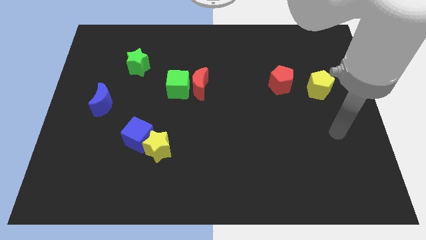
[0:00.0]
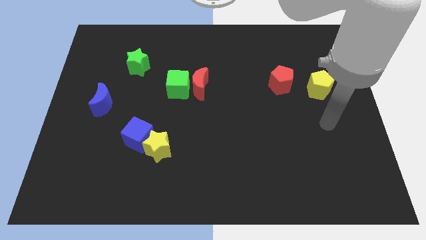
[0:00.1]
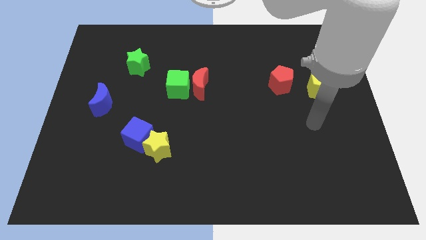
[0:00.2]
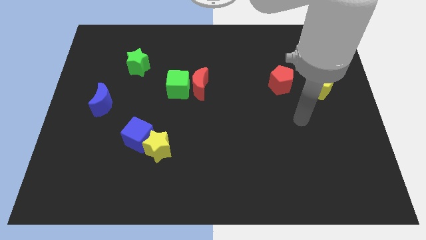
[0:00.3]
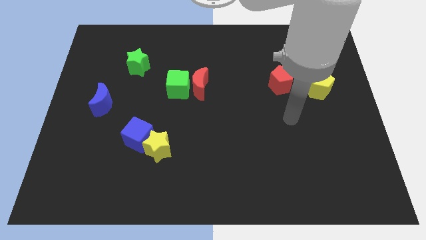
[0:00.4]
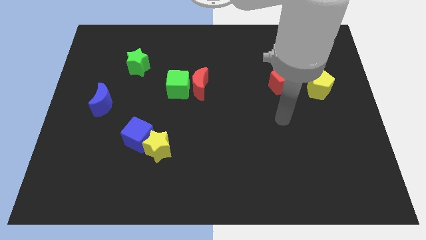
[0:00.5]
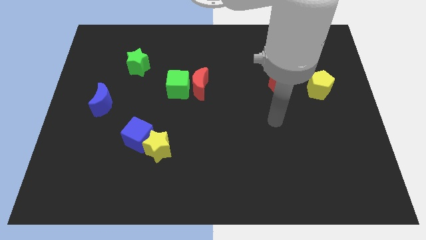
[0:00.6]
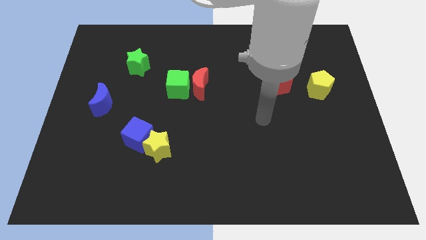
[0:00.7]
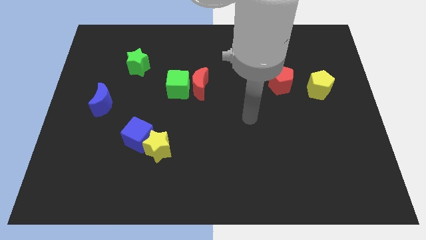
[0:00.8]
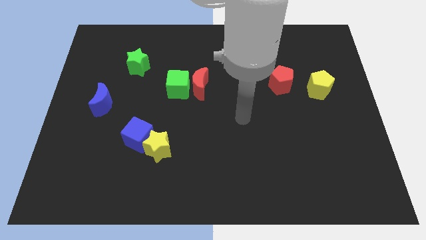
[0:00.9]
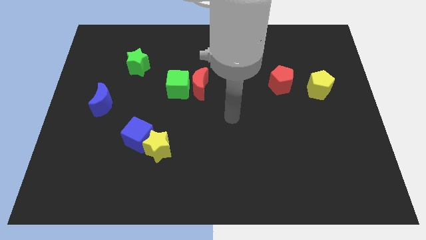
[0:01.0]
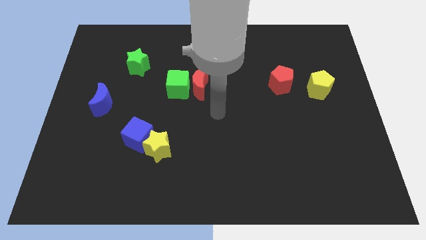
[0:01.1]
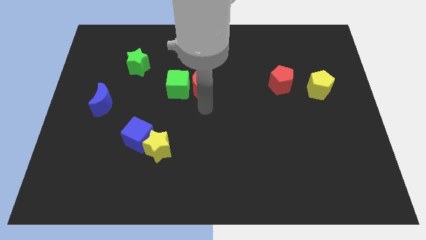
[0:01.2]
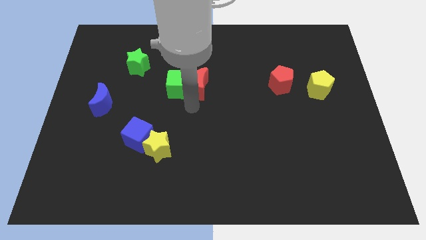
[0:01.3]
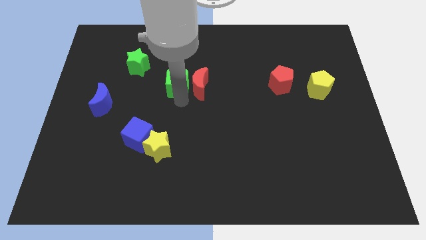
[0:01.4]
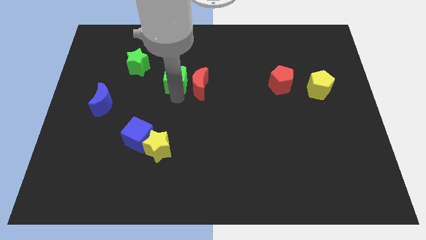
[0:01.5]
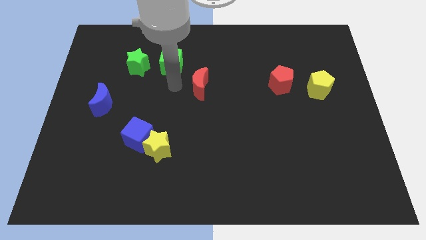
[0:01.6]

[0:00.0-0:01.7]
move the red moon away from the green cube

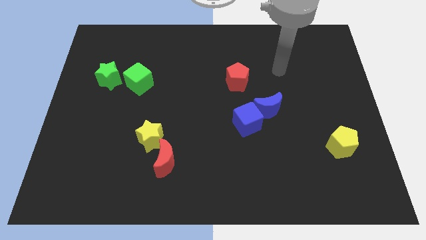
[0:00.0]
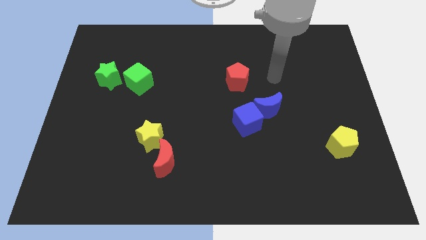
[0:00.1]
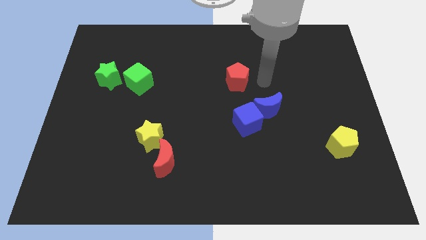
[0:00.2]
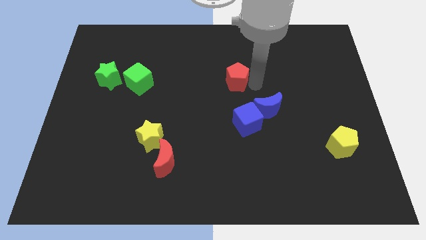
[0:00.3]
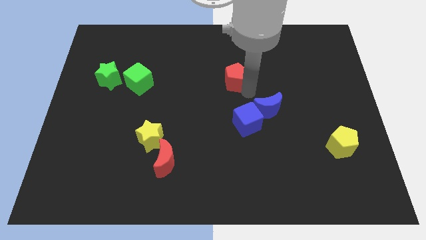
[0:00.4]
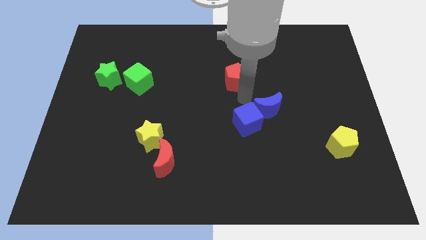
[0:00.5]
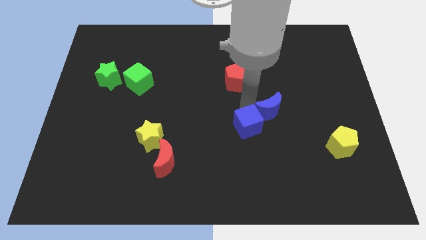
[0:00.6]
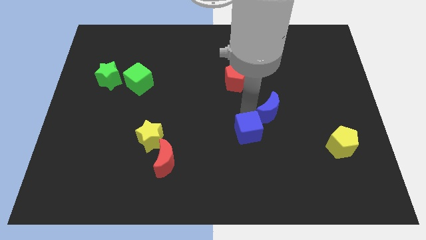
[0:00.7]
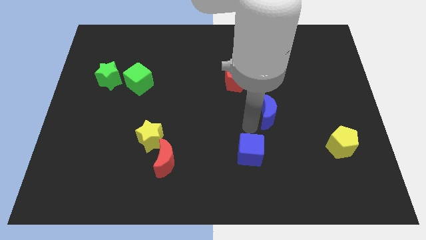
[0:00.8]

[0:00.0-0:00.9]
separate the blue moon from the blue cube

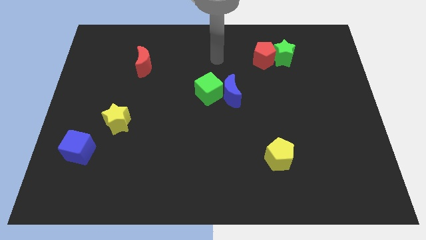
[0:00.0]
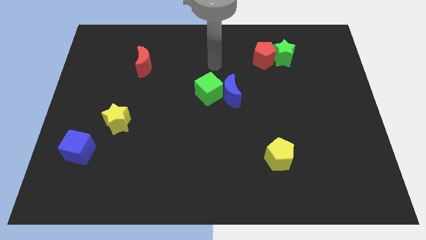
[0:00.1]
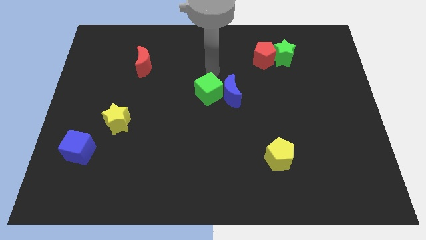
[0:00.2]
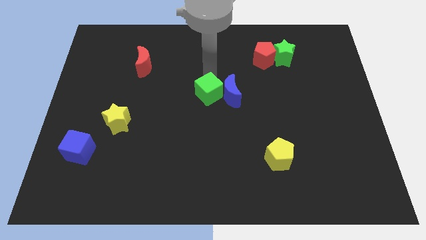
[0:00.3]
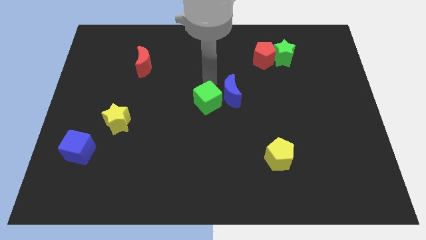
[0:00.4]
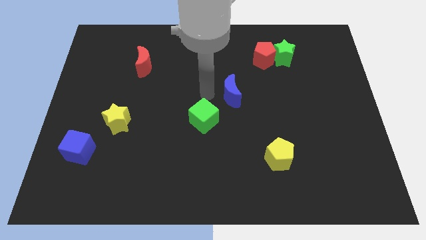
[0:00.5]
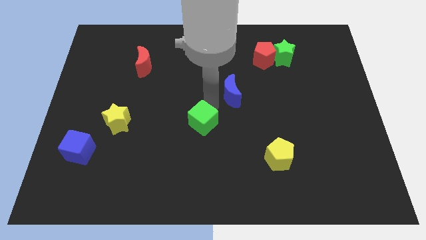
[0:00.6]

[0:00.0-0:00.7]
separate the blue moon from the green cube

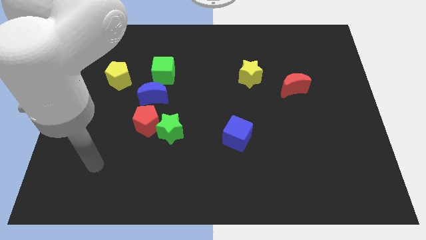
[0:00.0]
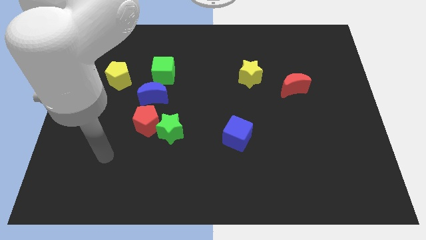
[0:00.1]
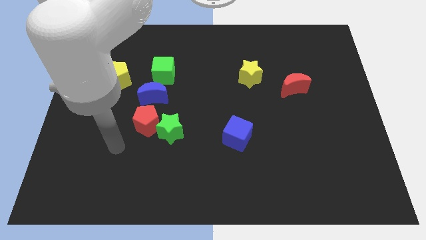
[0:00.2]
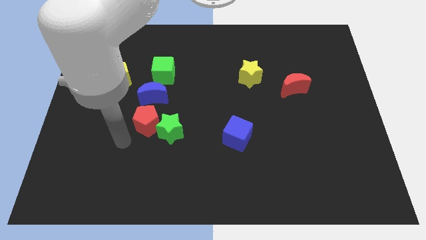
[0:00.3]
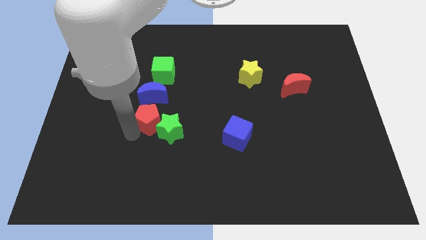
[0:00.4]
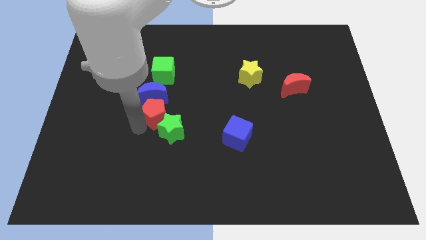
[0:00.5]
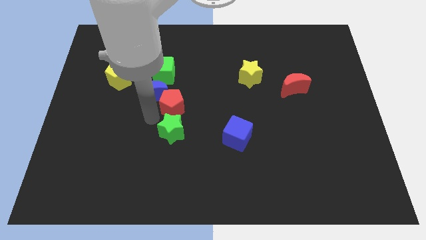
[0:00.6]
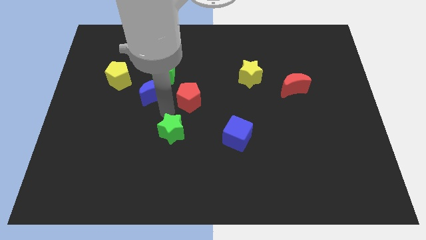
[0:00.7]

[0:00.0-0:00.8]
move the green star away from the red pentagon

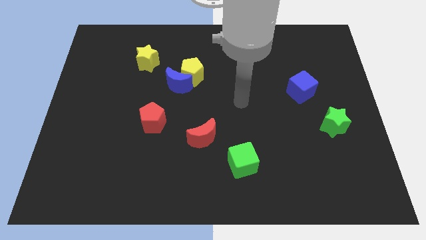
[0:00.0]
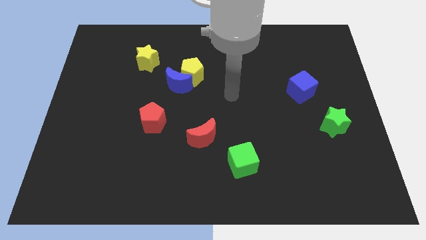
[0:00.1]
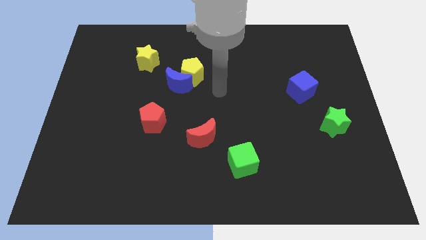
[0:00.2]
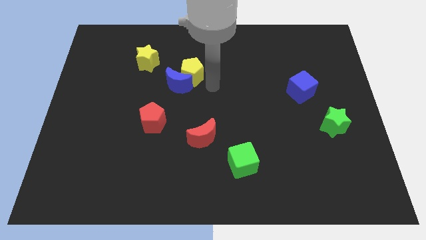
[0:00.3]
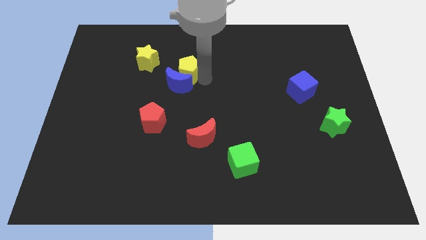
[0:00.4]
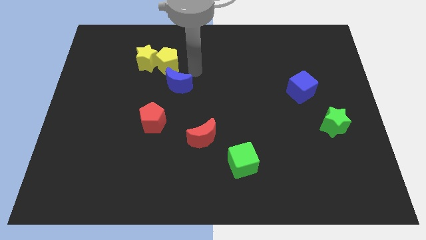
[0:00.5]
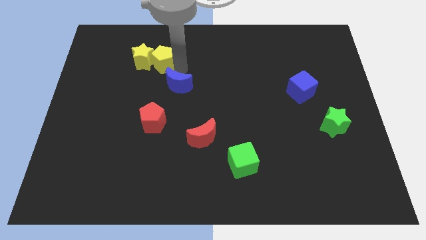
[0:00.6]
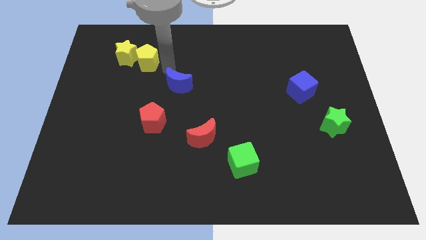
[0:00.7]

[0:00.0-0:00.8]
separate the blue moon from the yellow pentagon

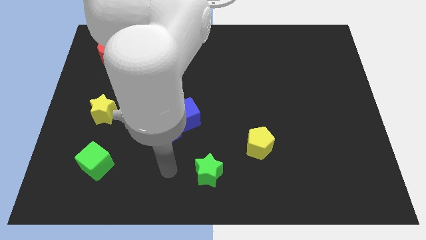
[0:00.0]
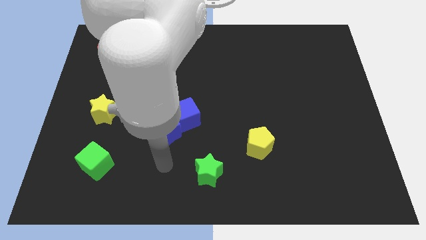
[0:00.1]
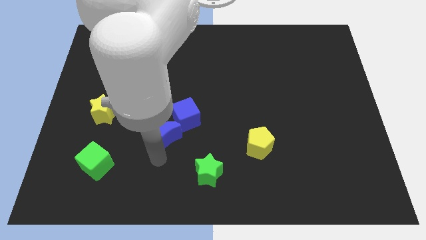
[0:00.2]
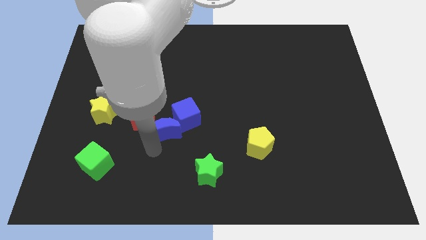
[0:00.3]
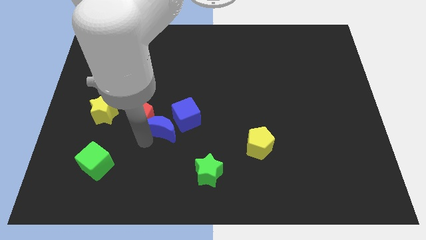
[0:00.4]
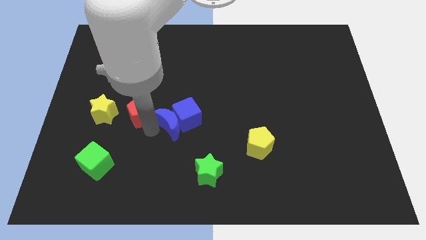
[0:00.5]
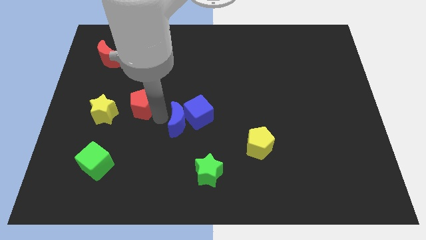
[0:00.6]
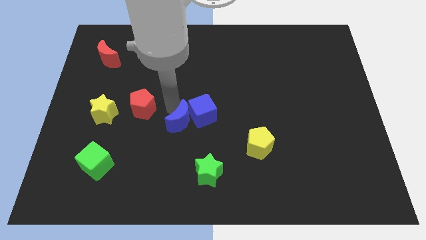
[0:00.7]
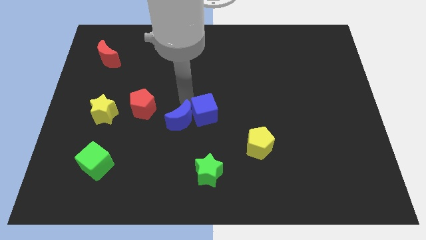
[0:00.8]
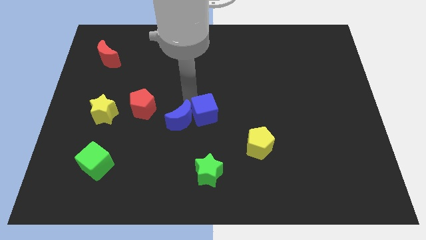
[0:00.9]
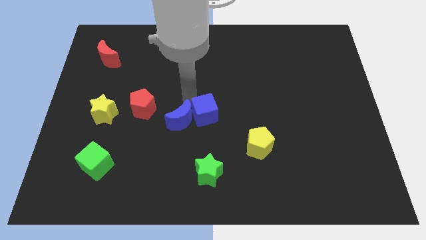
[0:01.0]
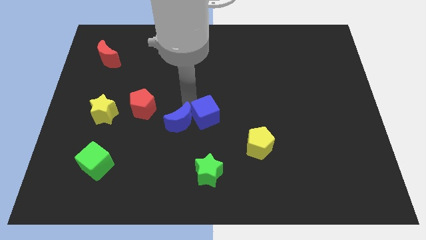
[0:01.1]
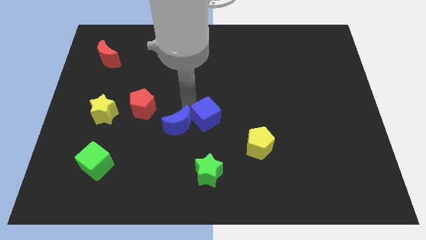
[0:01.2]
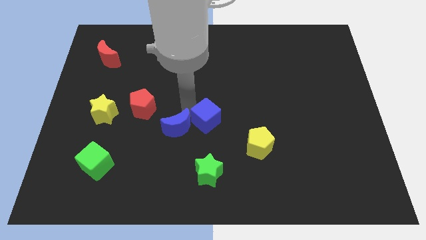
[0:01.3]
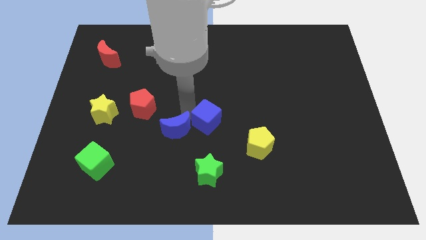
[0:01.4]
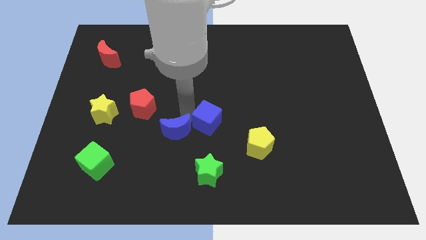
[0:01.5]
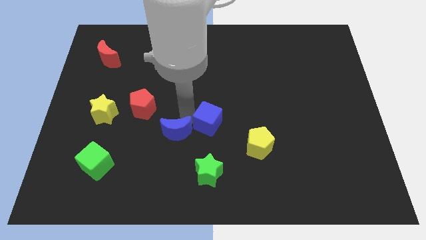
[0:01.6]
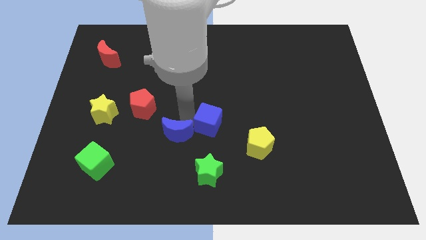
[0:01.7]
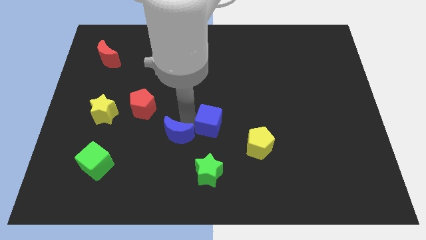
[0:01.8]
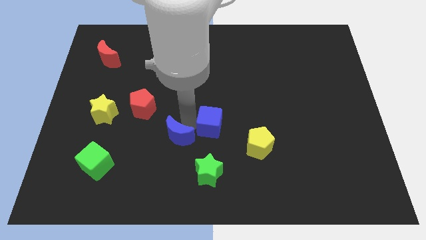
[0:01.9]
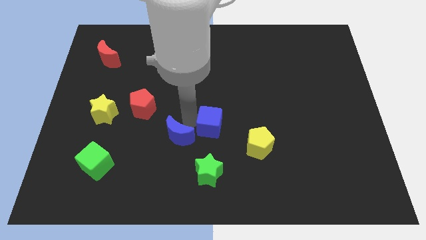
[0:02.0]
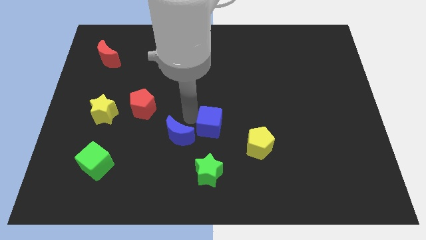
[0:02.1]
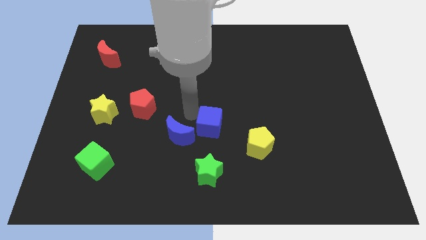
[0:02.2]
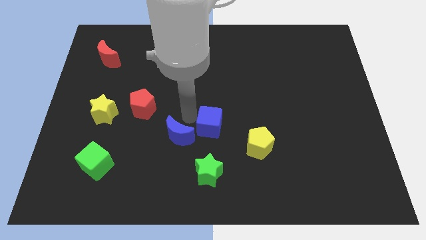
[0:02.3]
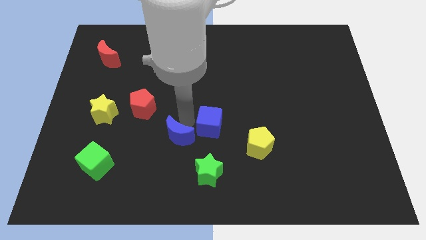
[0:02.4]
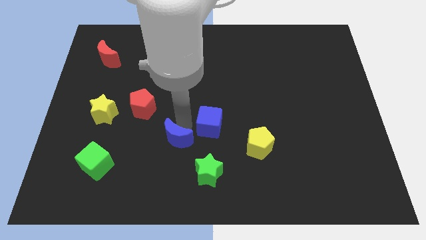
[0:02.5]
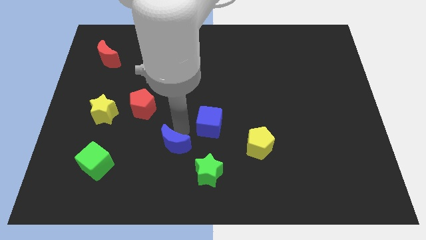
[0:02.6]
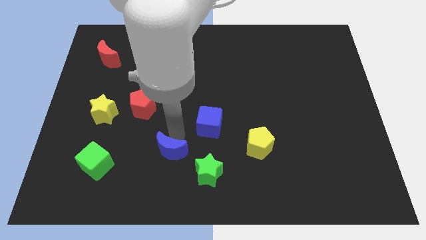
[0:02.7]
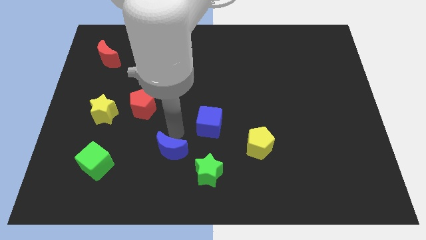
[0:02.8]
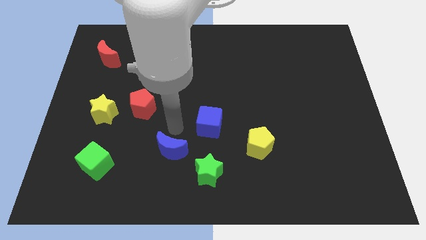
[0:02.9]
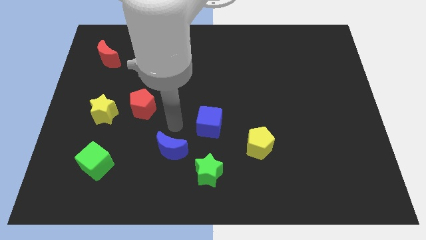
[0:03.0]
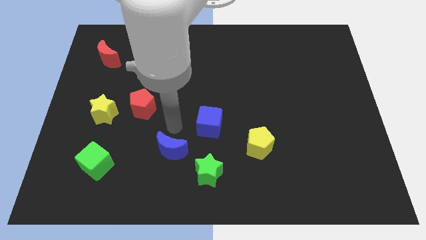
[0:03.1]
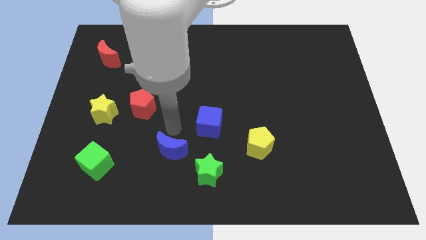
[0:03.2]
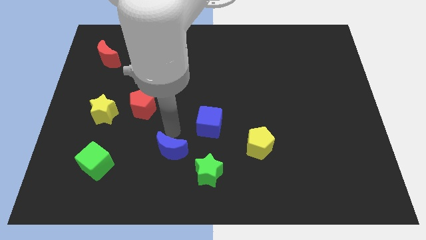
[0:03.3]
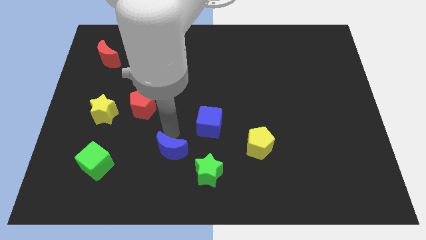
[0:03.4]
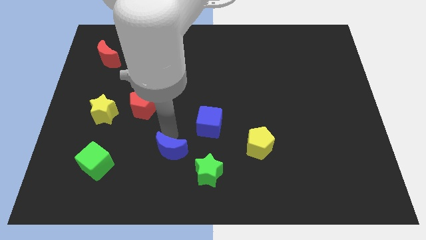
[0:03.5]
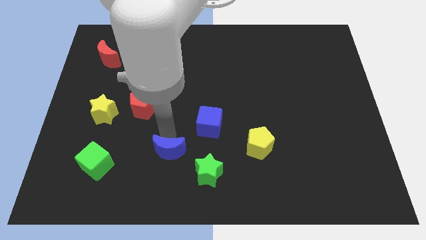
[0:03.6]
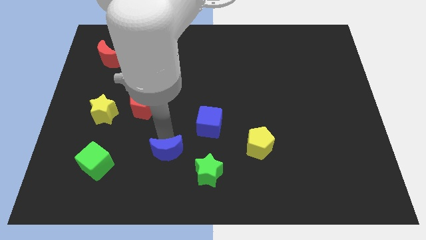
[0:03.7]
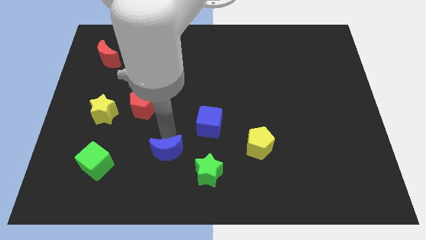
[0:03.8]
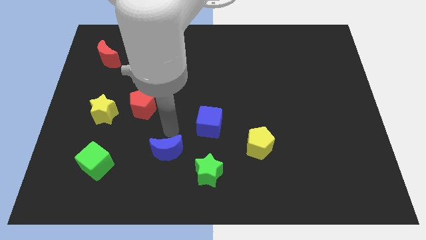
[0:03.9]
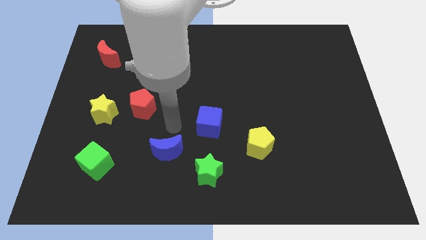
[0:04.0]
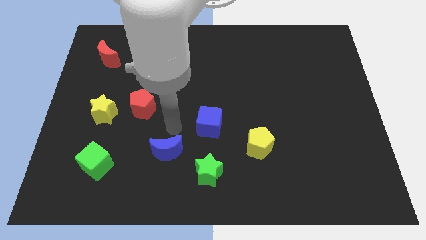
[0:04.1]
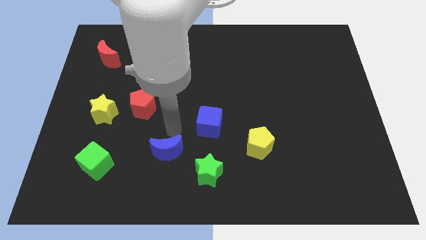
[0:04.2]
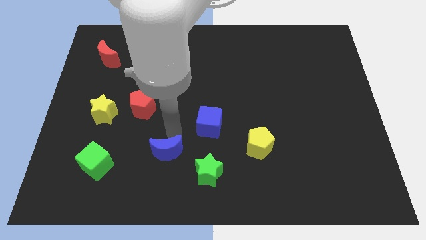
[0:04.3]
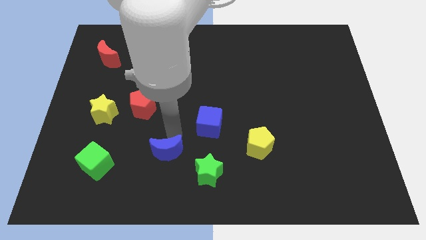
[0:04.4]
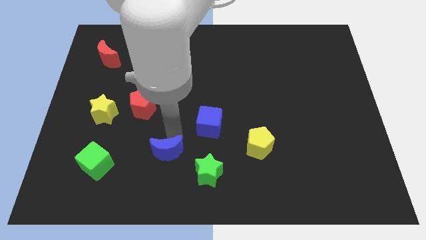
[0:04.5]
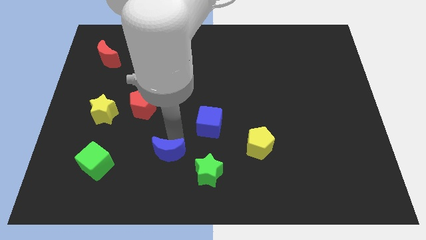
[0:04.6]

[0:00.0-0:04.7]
pull the blue moon apart from the blue cube and red pentagon
